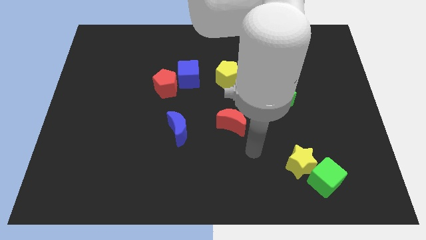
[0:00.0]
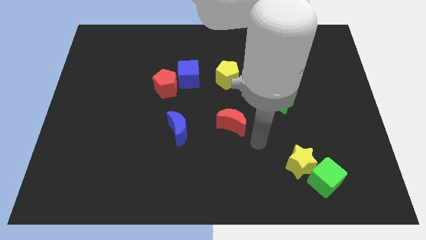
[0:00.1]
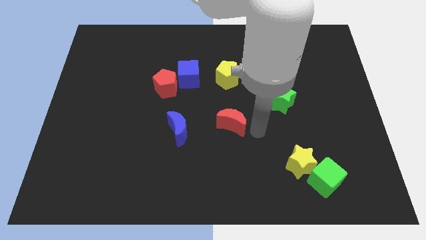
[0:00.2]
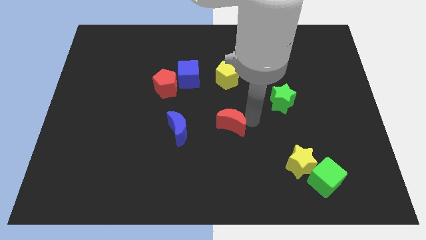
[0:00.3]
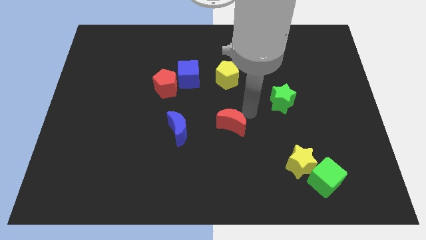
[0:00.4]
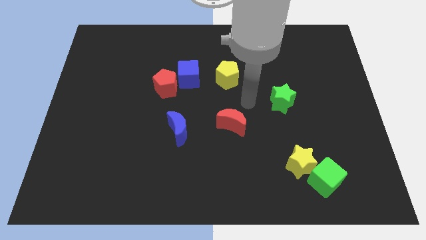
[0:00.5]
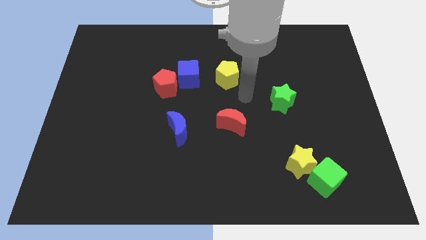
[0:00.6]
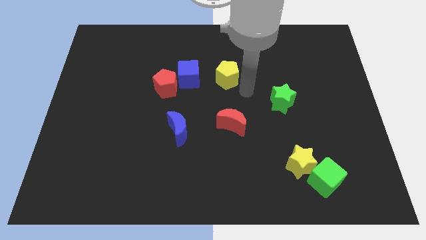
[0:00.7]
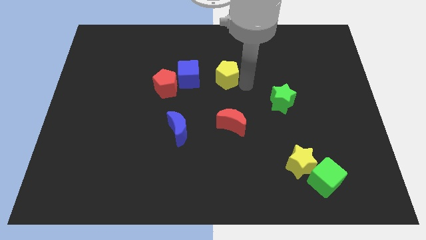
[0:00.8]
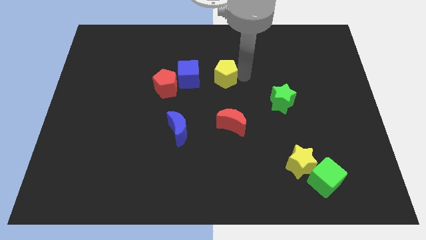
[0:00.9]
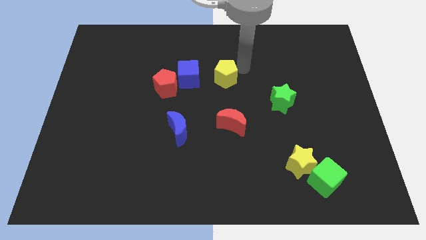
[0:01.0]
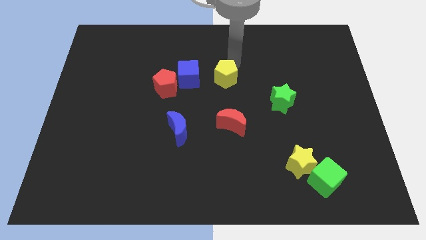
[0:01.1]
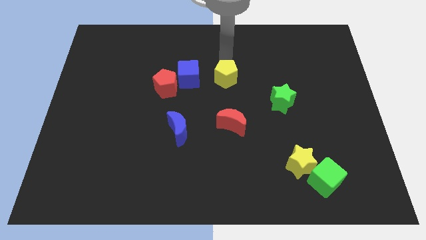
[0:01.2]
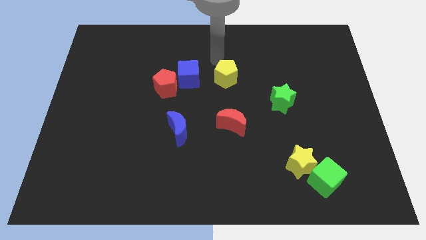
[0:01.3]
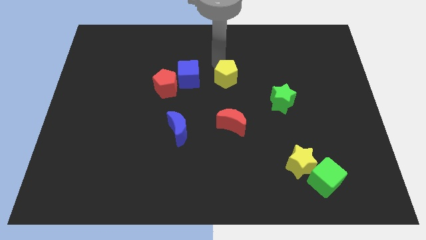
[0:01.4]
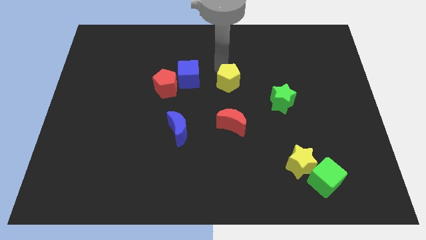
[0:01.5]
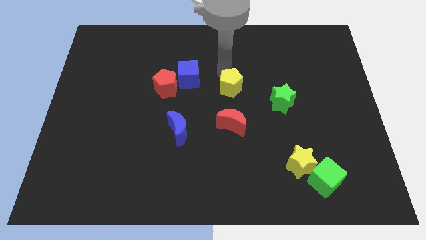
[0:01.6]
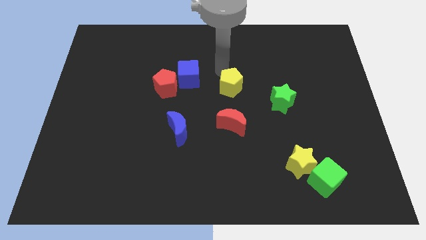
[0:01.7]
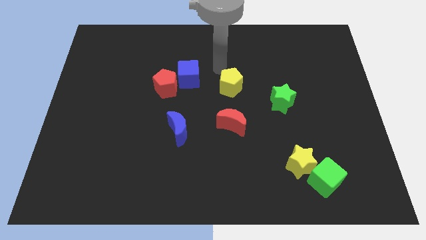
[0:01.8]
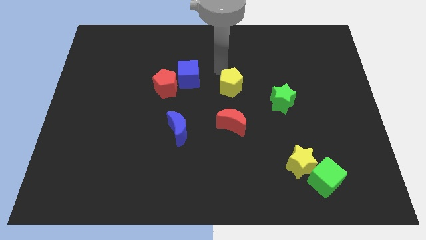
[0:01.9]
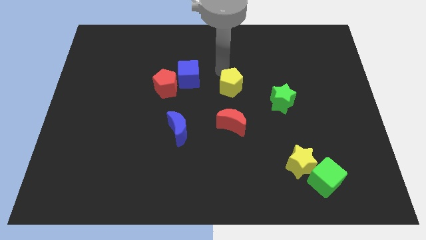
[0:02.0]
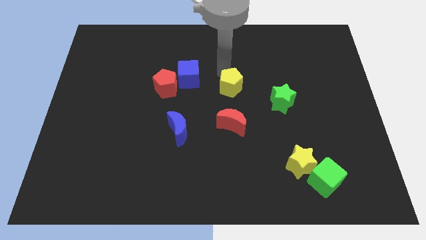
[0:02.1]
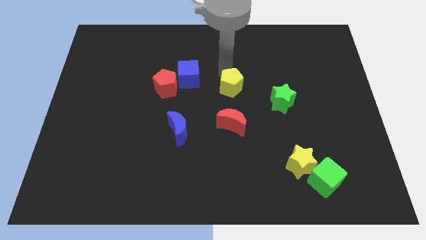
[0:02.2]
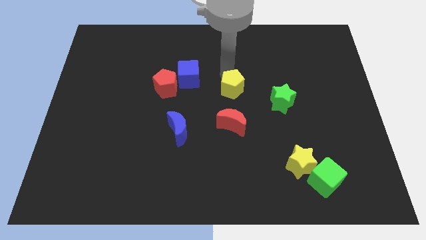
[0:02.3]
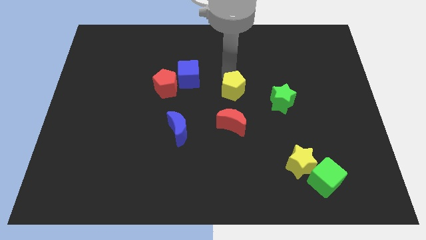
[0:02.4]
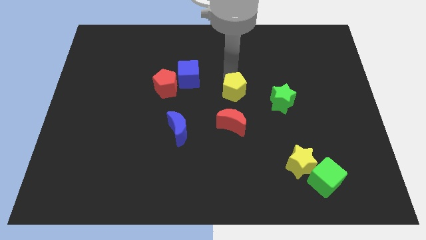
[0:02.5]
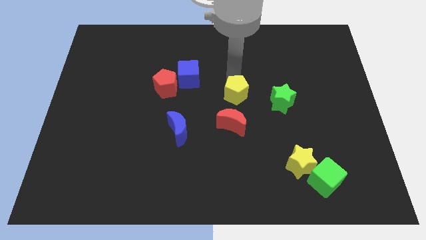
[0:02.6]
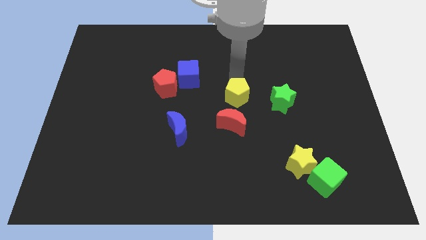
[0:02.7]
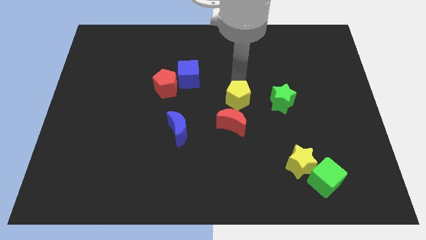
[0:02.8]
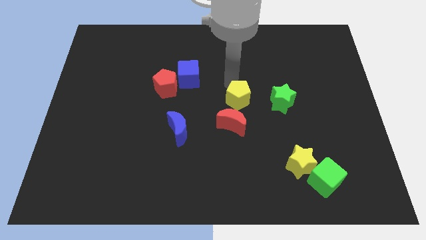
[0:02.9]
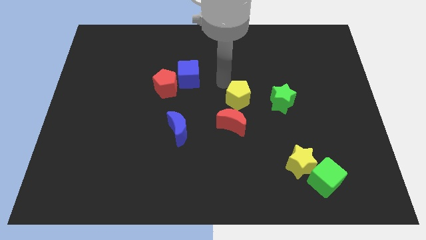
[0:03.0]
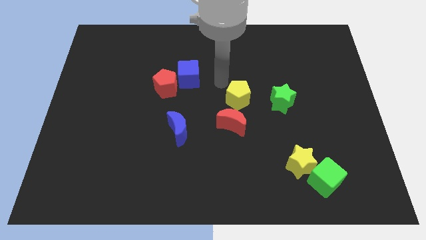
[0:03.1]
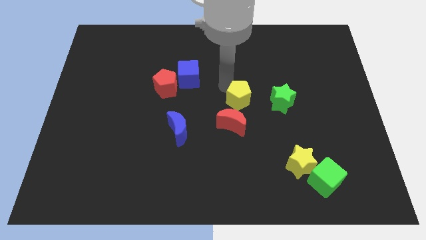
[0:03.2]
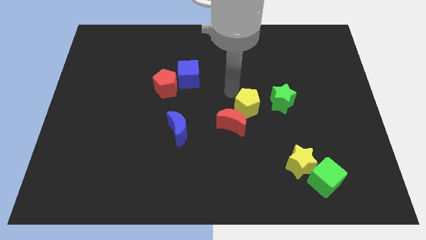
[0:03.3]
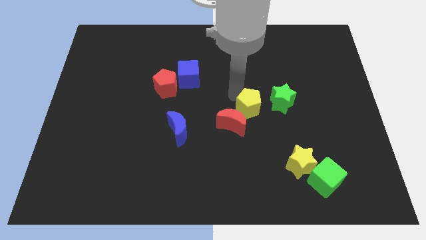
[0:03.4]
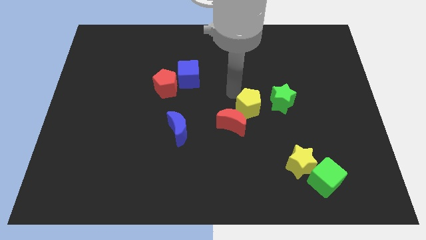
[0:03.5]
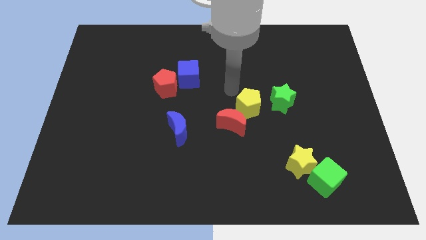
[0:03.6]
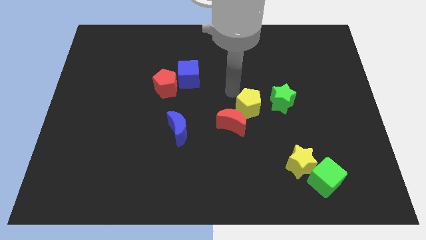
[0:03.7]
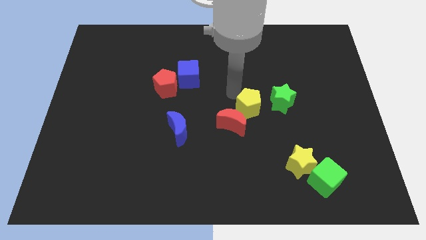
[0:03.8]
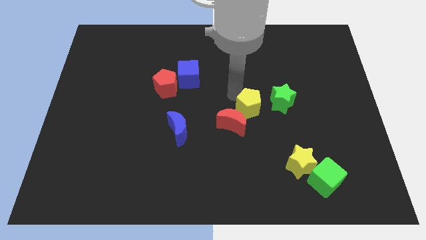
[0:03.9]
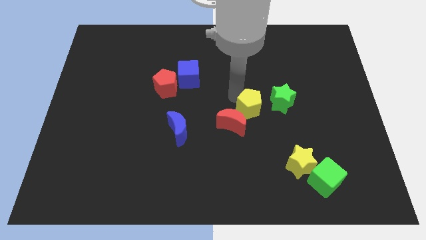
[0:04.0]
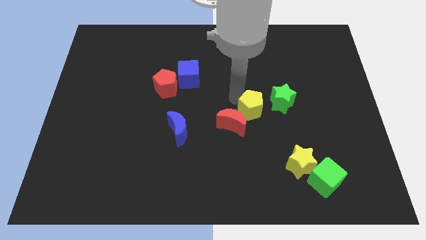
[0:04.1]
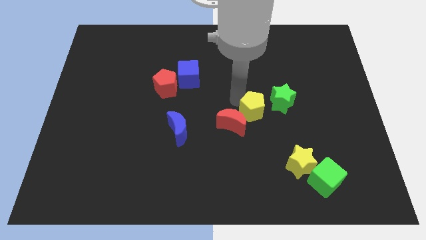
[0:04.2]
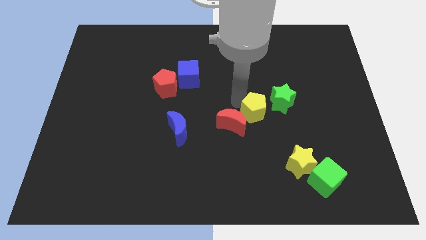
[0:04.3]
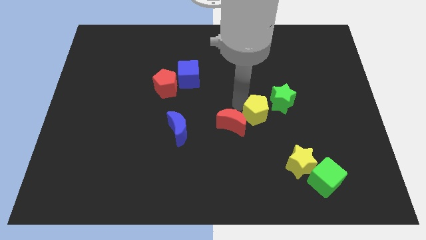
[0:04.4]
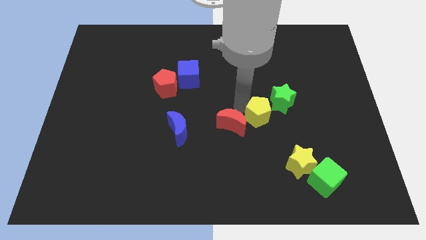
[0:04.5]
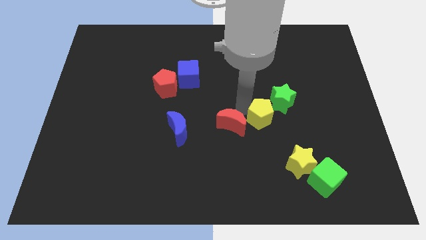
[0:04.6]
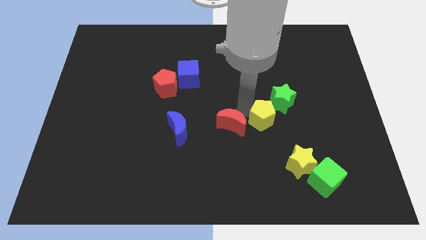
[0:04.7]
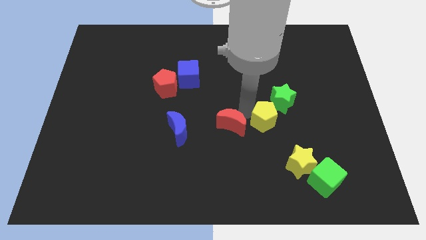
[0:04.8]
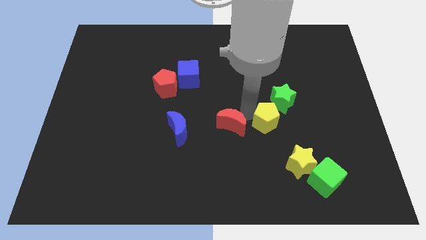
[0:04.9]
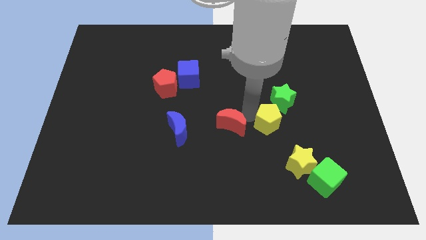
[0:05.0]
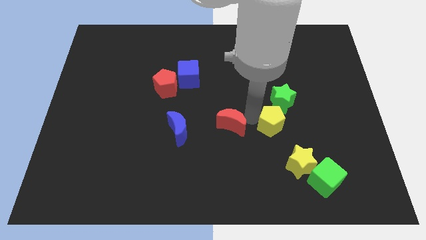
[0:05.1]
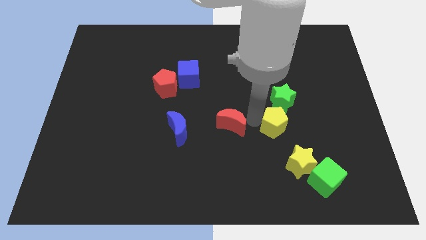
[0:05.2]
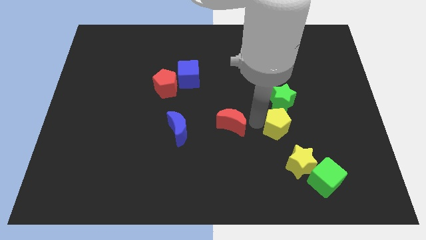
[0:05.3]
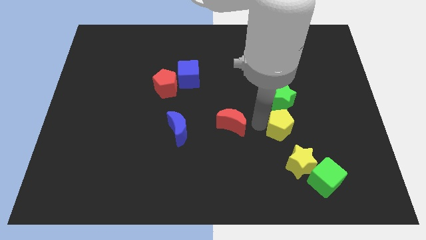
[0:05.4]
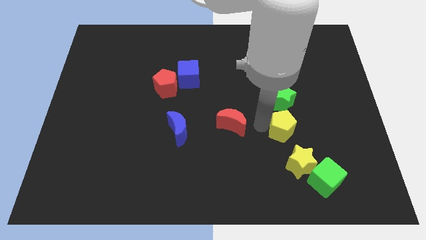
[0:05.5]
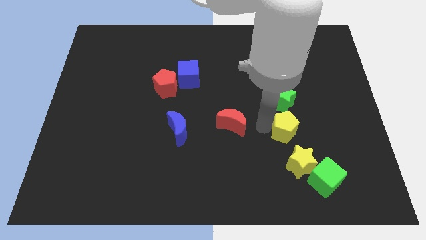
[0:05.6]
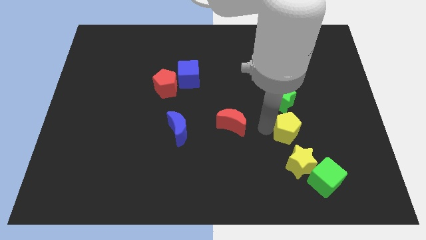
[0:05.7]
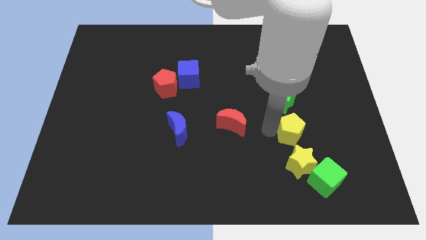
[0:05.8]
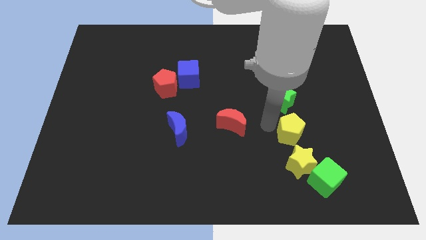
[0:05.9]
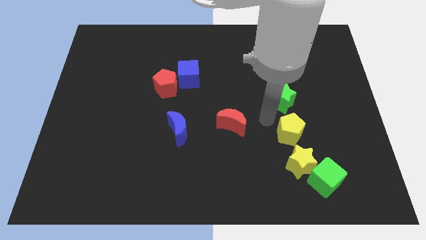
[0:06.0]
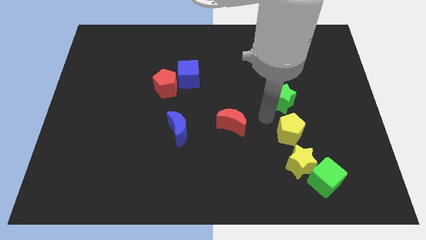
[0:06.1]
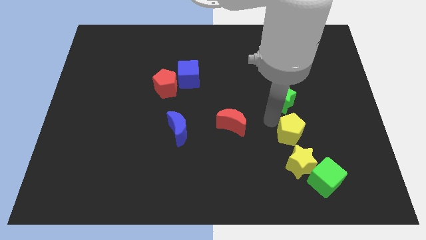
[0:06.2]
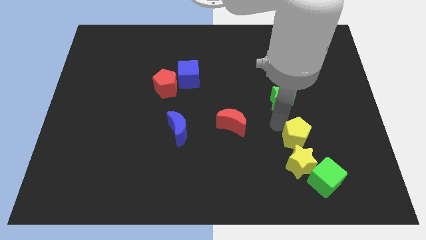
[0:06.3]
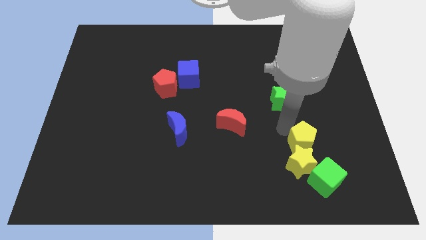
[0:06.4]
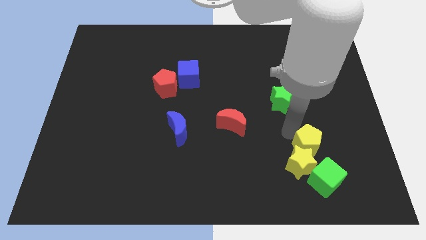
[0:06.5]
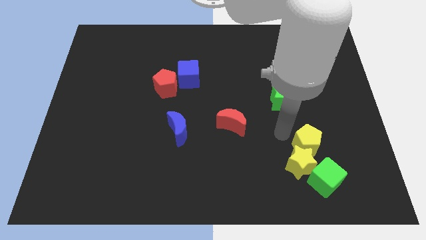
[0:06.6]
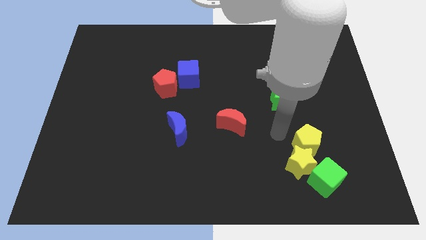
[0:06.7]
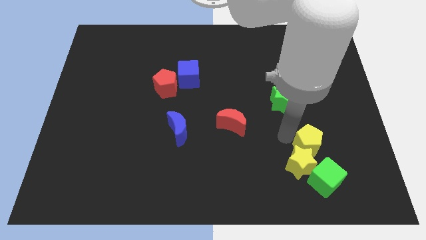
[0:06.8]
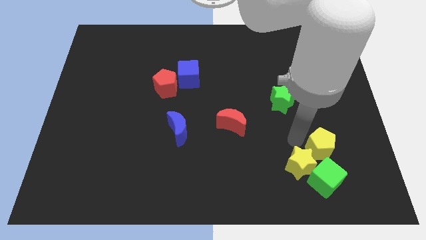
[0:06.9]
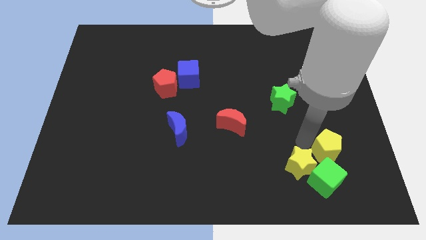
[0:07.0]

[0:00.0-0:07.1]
slide the yellow pentagon to the top right side of the green cube
